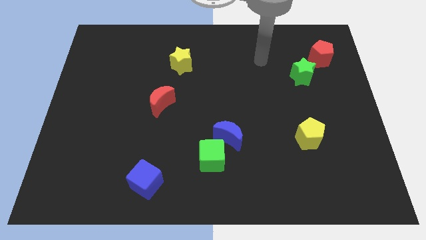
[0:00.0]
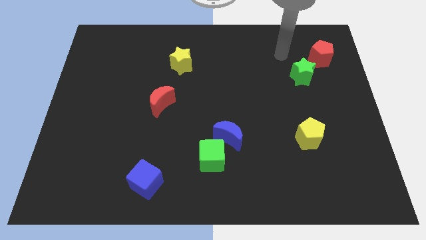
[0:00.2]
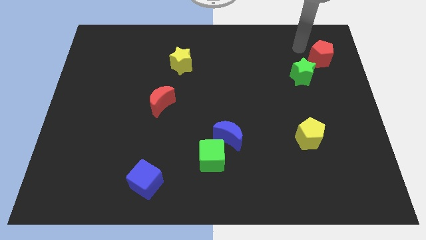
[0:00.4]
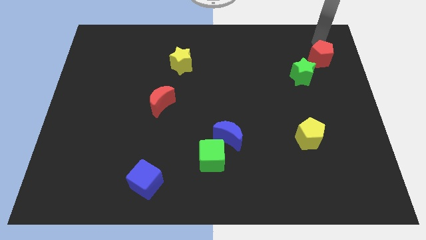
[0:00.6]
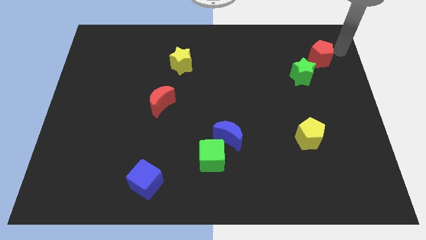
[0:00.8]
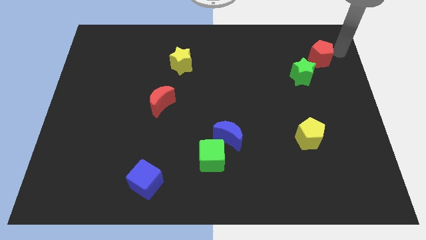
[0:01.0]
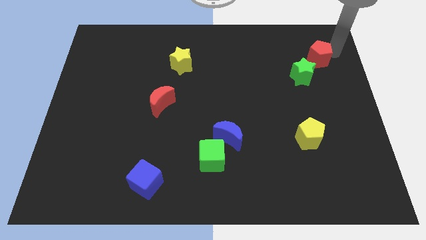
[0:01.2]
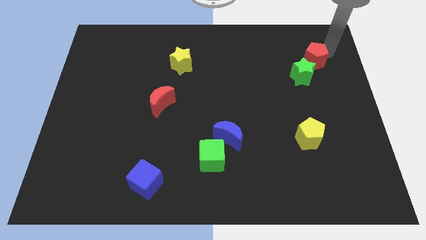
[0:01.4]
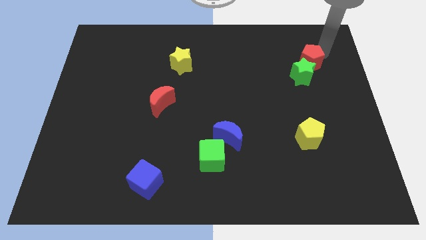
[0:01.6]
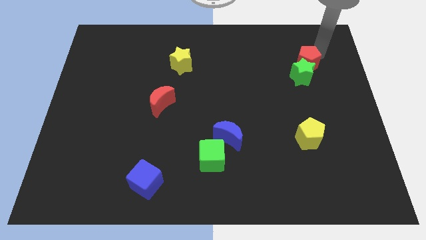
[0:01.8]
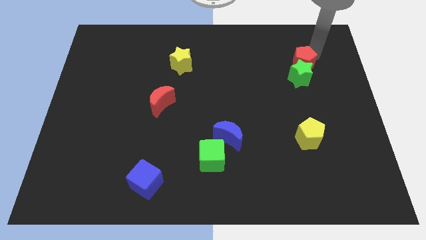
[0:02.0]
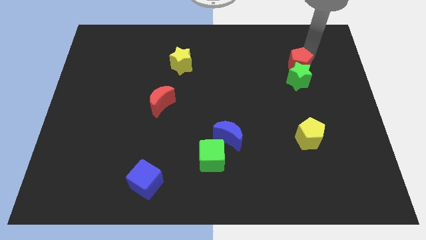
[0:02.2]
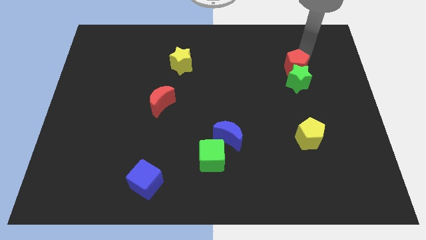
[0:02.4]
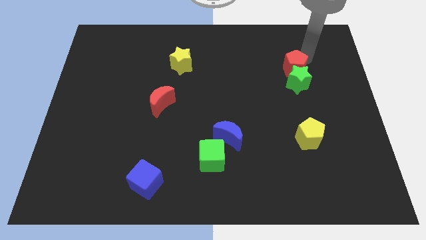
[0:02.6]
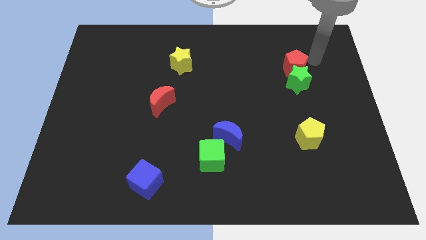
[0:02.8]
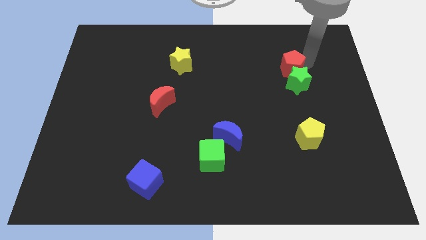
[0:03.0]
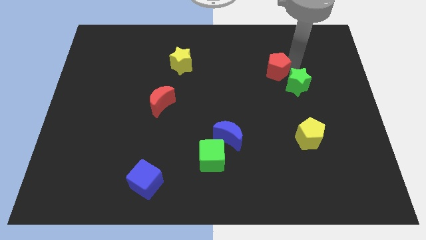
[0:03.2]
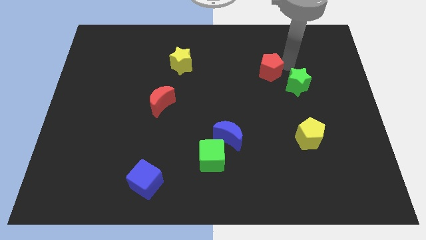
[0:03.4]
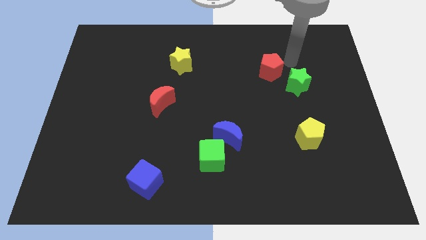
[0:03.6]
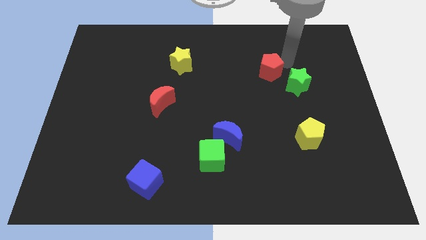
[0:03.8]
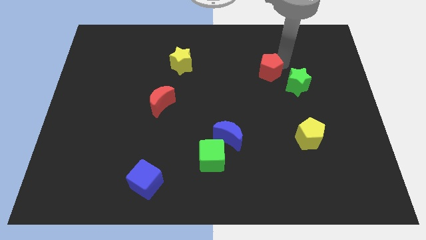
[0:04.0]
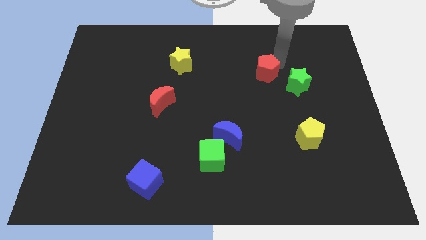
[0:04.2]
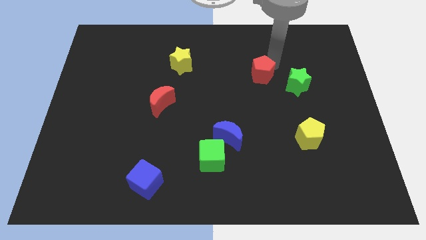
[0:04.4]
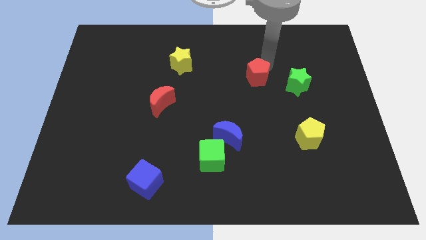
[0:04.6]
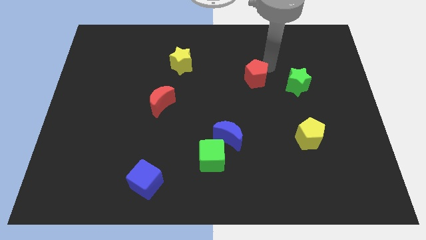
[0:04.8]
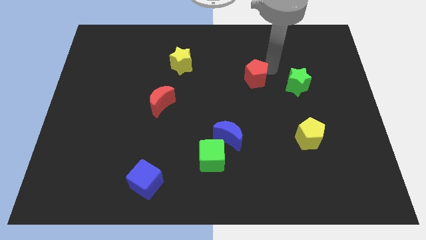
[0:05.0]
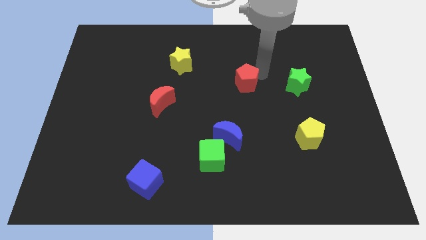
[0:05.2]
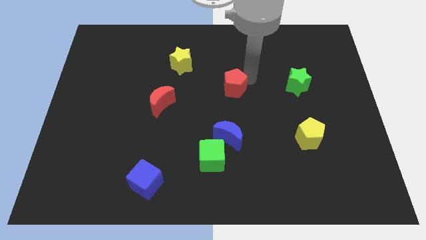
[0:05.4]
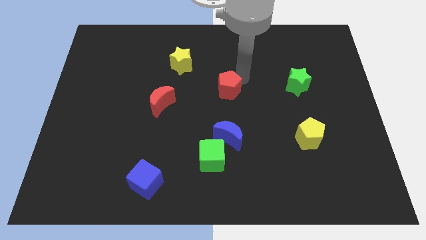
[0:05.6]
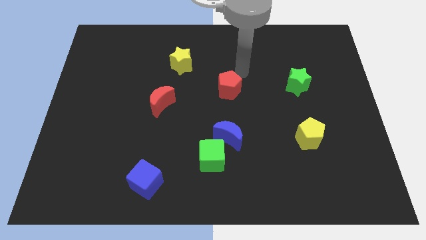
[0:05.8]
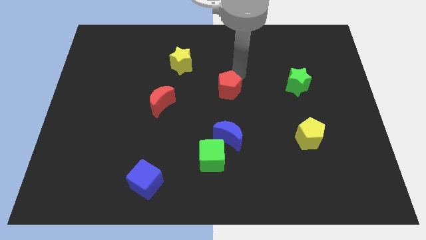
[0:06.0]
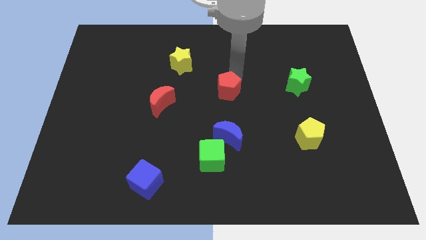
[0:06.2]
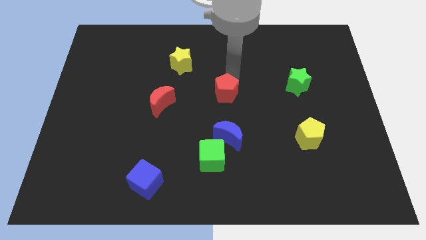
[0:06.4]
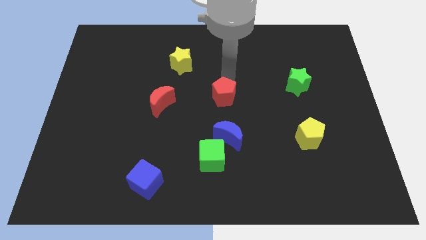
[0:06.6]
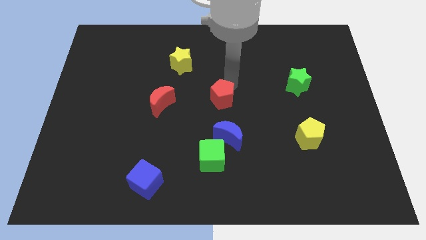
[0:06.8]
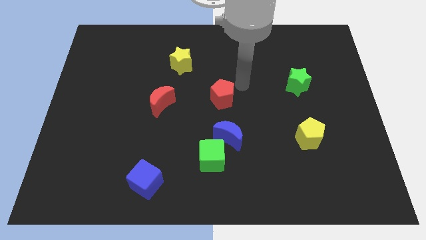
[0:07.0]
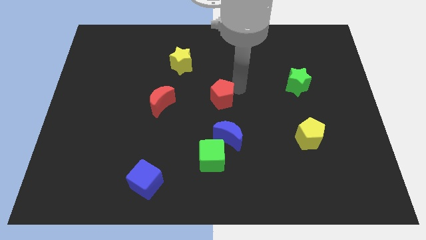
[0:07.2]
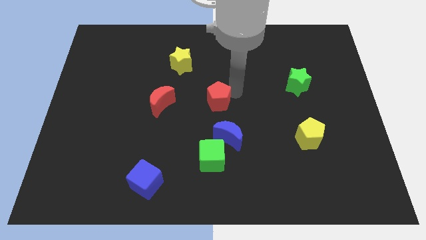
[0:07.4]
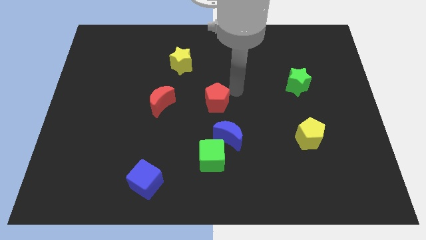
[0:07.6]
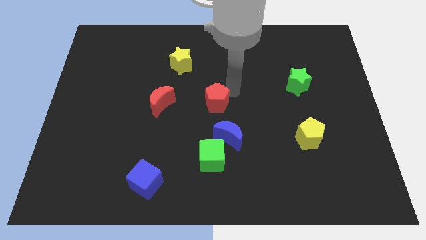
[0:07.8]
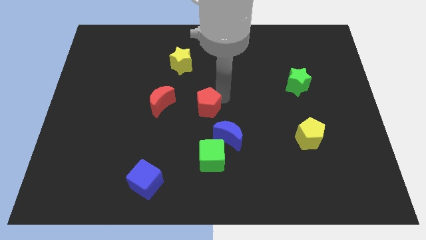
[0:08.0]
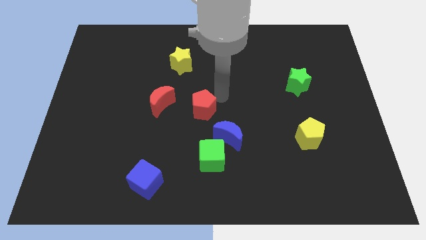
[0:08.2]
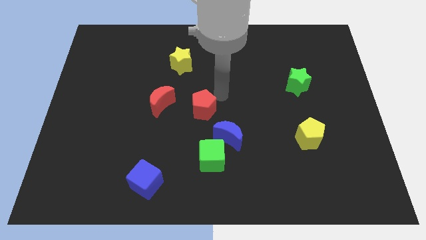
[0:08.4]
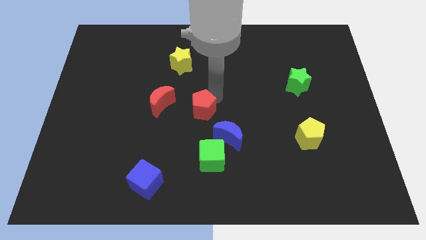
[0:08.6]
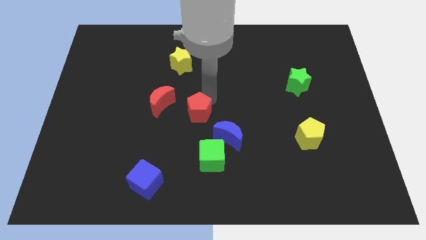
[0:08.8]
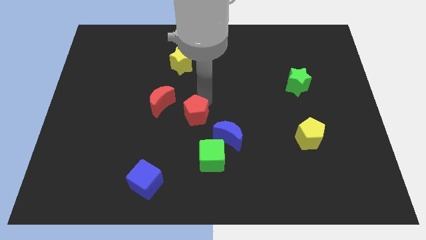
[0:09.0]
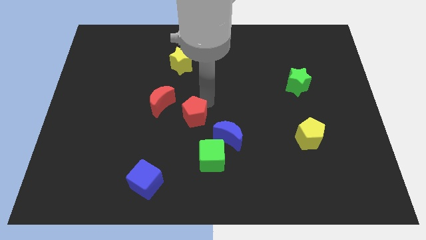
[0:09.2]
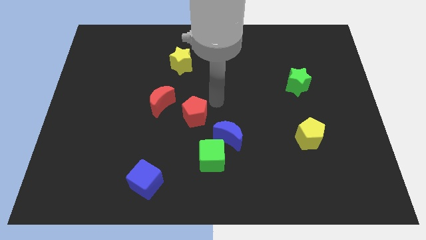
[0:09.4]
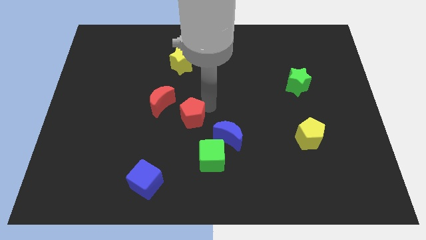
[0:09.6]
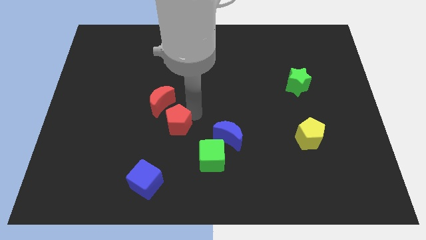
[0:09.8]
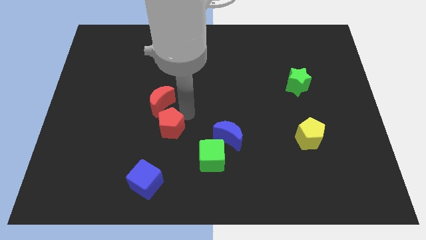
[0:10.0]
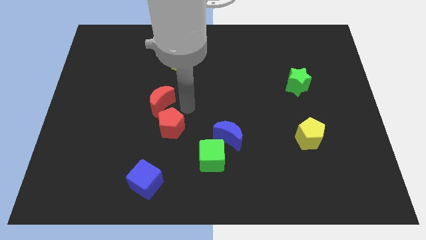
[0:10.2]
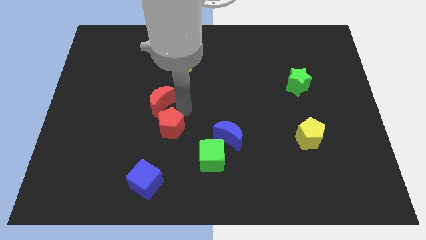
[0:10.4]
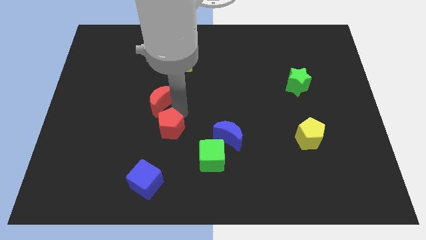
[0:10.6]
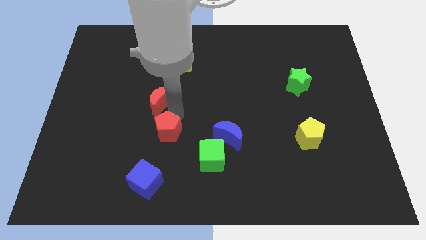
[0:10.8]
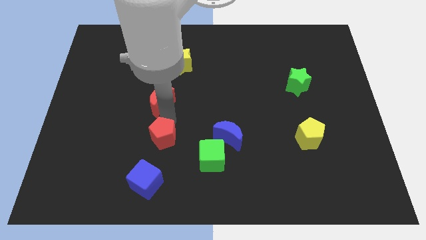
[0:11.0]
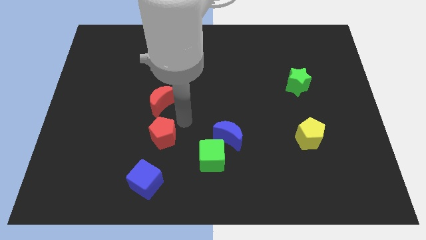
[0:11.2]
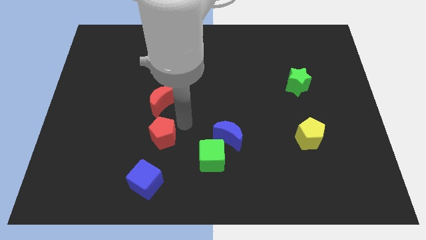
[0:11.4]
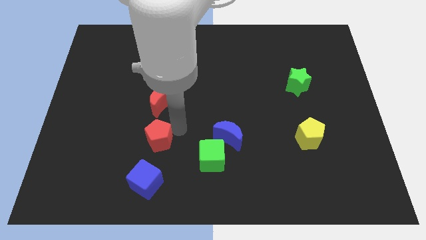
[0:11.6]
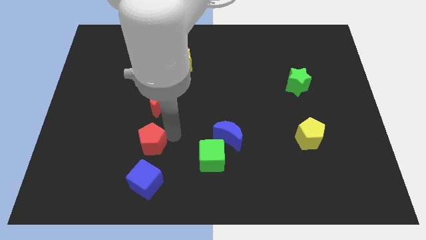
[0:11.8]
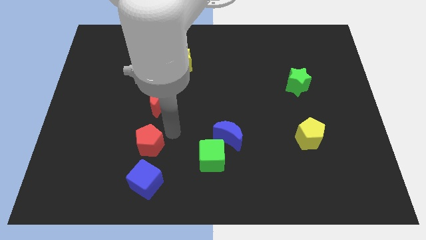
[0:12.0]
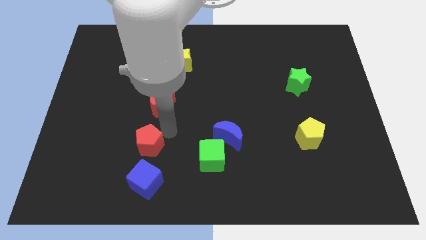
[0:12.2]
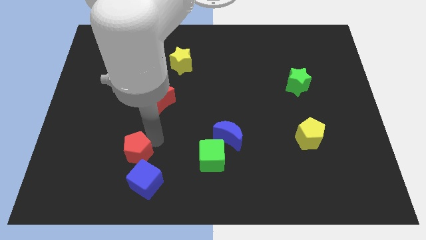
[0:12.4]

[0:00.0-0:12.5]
put the red pentagon to the top left side of the blue cube

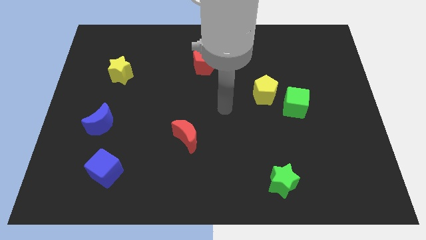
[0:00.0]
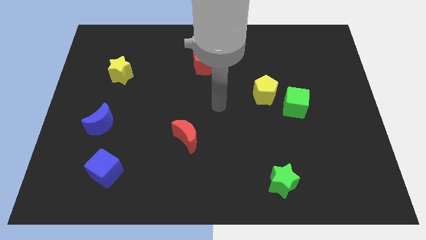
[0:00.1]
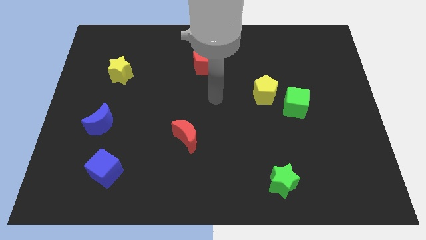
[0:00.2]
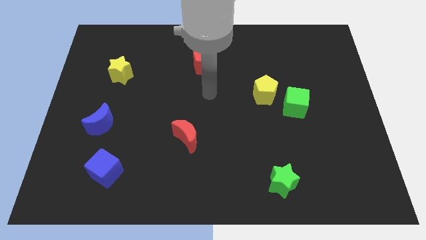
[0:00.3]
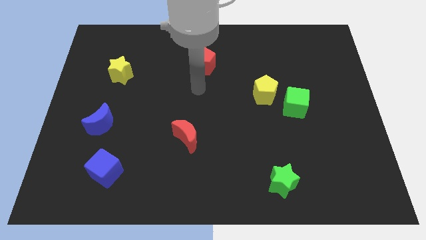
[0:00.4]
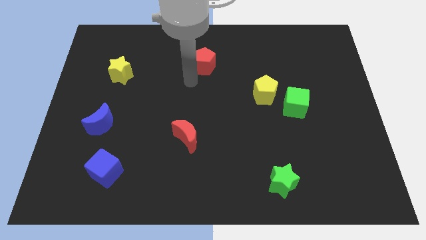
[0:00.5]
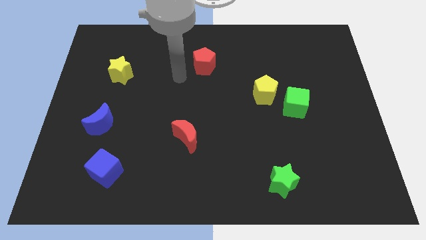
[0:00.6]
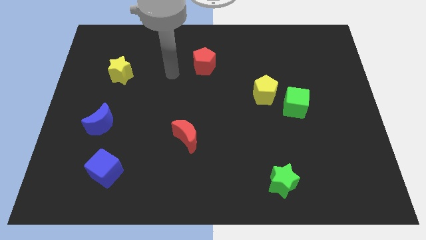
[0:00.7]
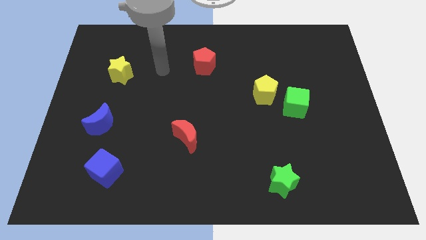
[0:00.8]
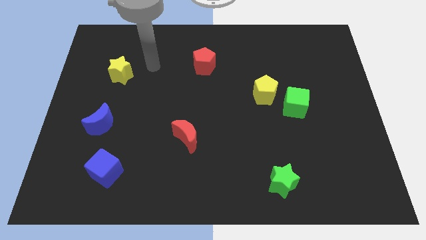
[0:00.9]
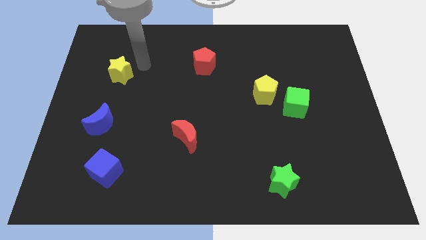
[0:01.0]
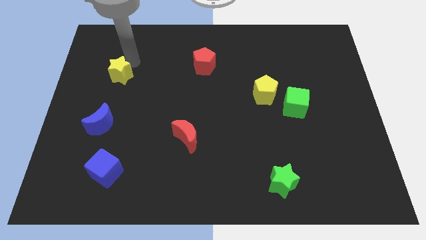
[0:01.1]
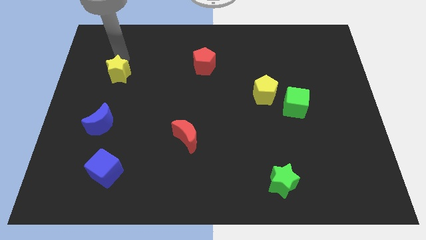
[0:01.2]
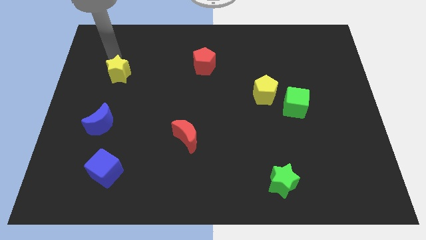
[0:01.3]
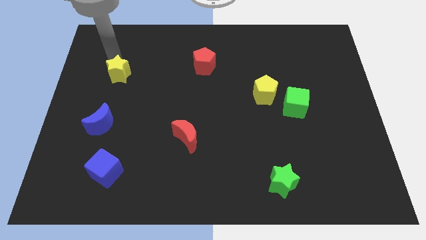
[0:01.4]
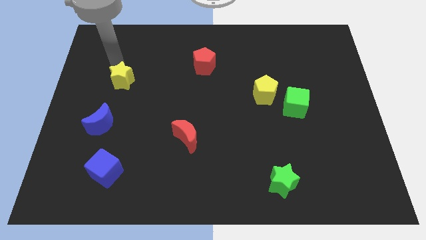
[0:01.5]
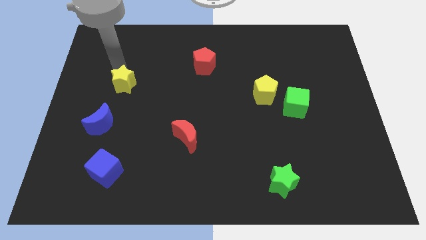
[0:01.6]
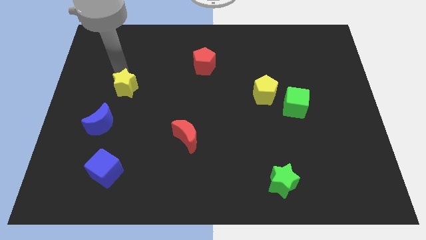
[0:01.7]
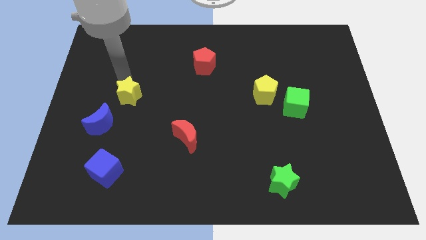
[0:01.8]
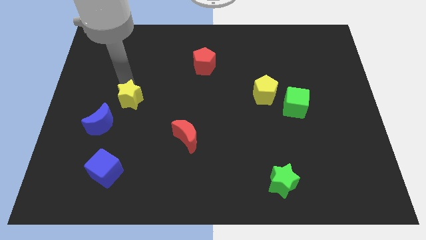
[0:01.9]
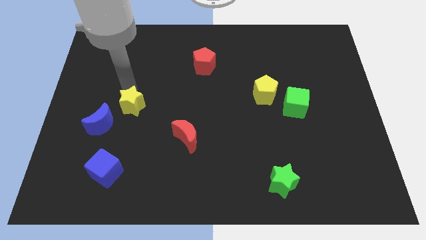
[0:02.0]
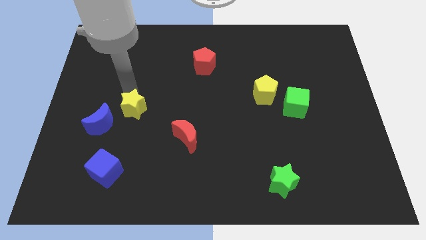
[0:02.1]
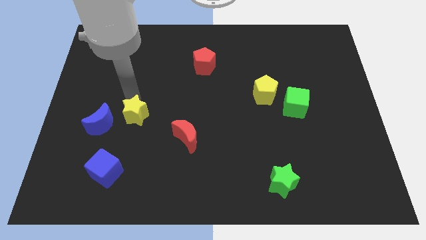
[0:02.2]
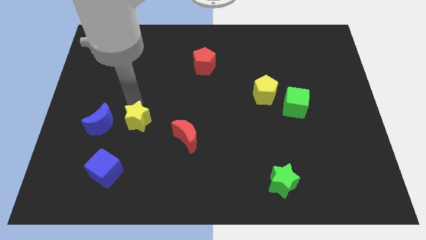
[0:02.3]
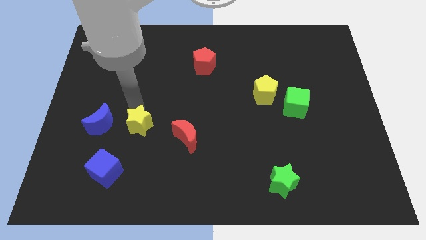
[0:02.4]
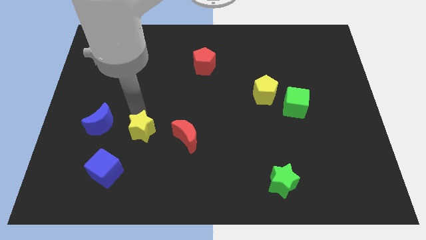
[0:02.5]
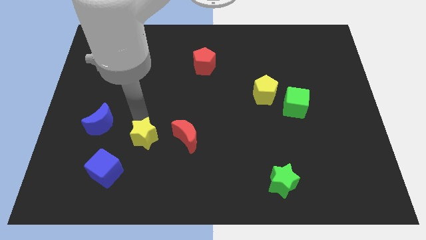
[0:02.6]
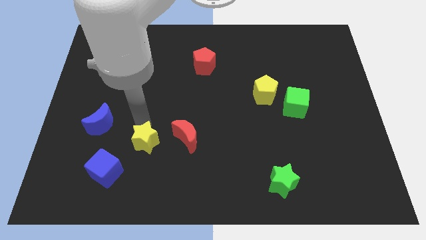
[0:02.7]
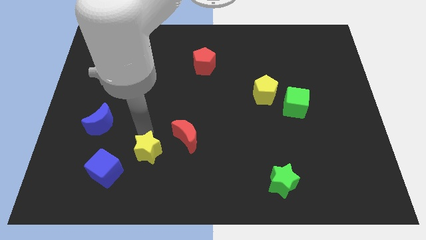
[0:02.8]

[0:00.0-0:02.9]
push the yellow star right of the blue cube
